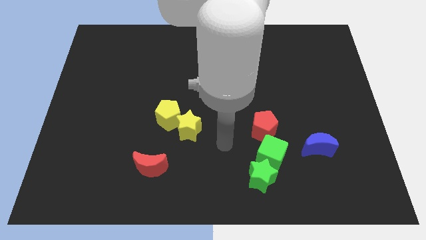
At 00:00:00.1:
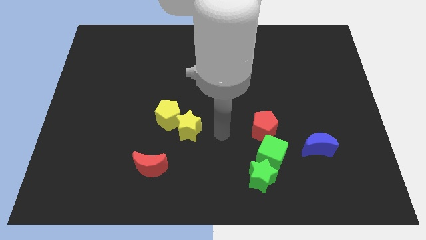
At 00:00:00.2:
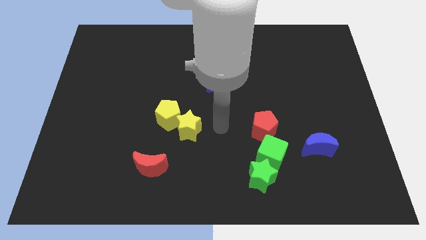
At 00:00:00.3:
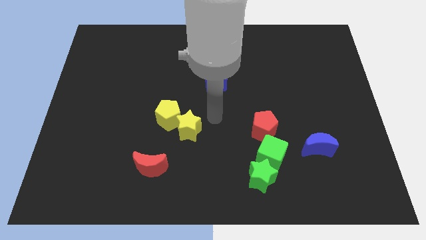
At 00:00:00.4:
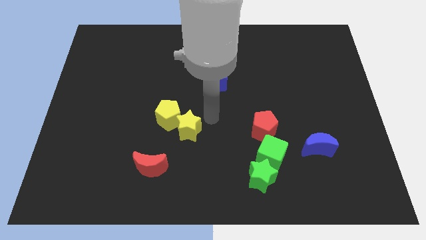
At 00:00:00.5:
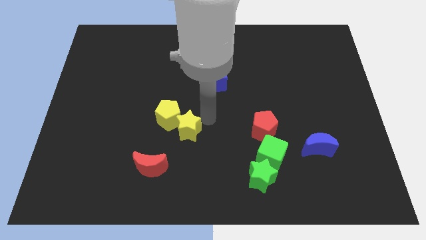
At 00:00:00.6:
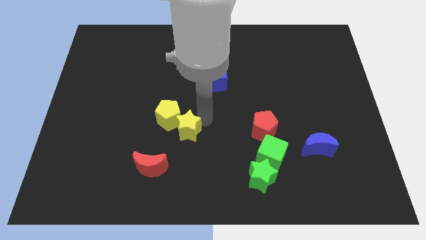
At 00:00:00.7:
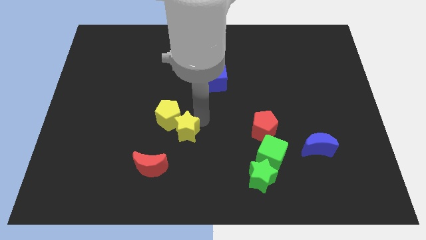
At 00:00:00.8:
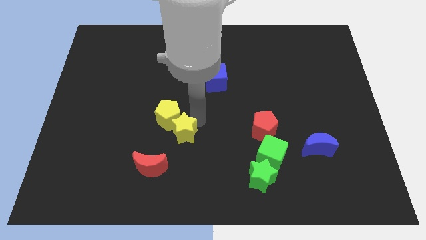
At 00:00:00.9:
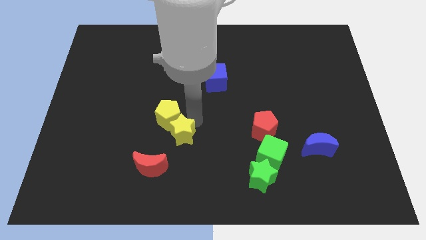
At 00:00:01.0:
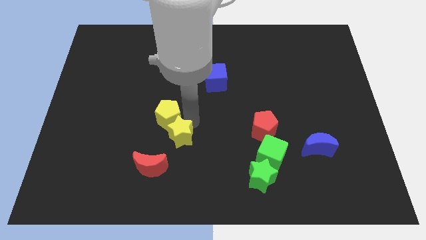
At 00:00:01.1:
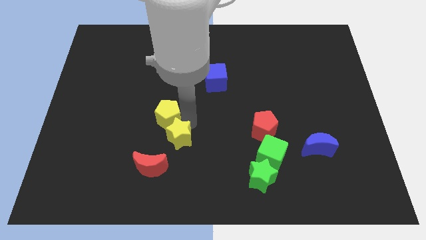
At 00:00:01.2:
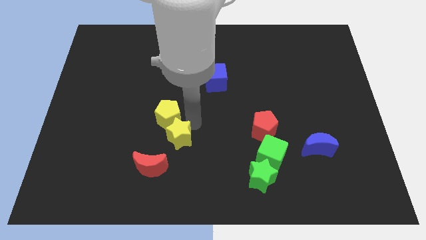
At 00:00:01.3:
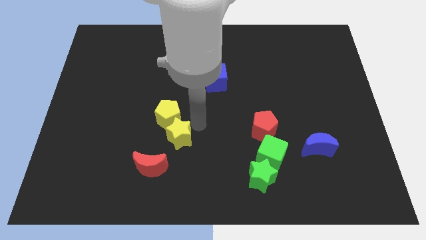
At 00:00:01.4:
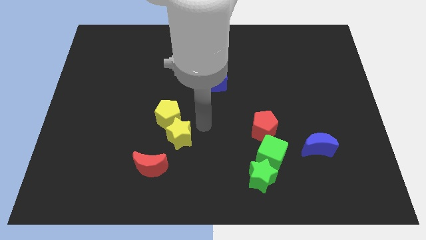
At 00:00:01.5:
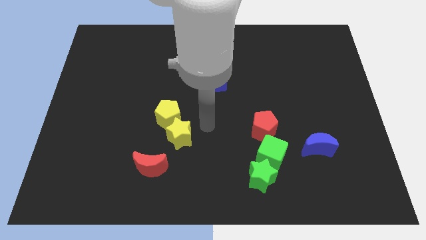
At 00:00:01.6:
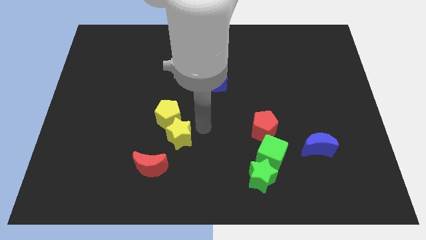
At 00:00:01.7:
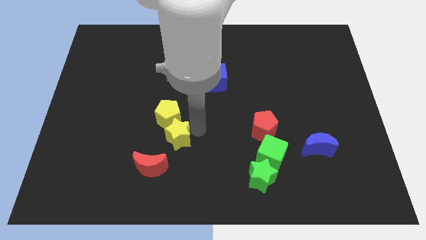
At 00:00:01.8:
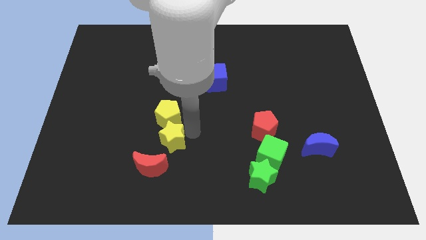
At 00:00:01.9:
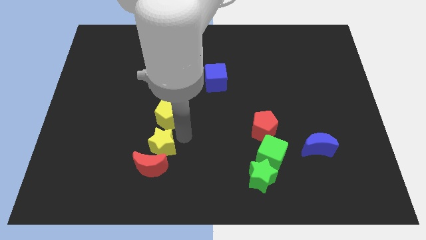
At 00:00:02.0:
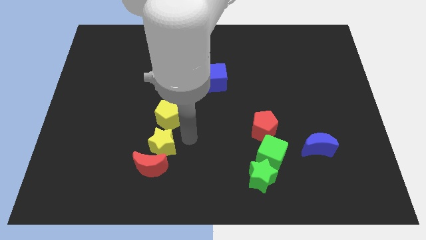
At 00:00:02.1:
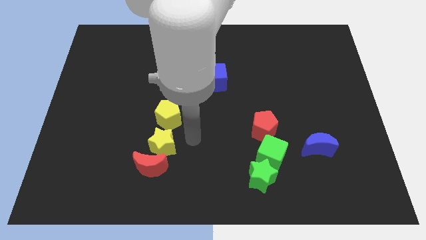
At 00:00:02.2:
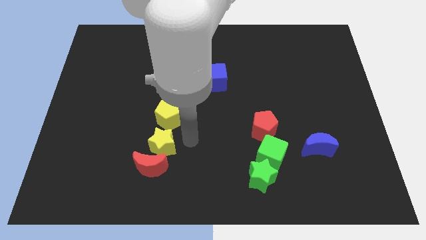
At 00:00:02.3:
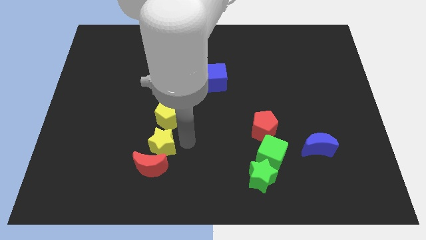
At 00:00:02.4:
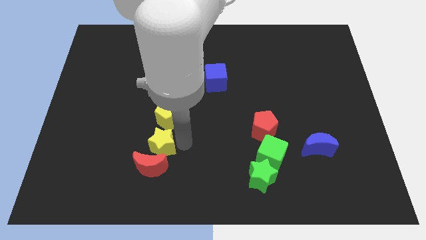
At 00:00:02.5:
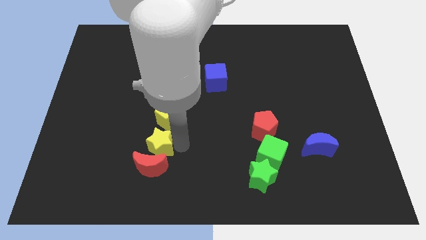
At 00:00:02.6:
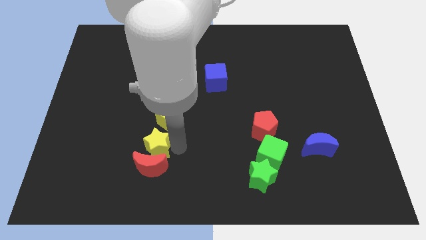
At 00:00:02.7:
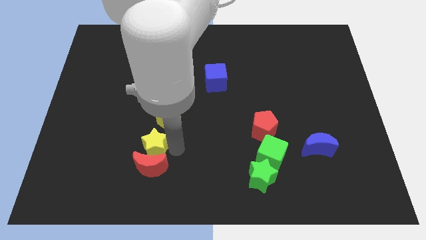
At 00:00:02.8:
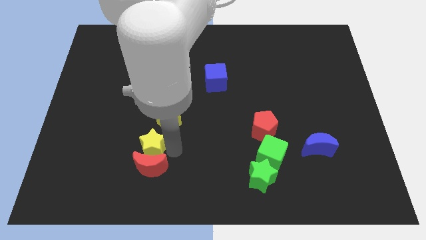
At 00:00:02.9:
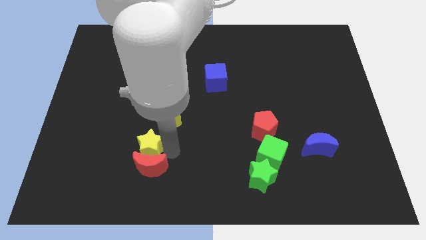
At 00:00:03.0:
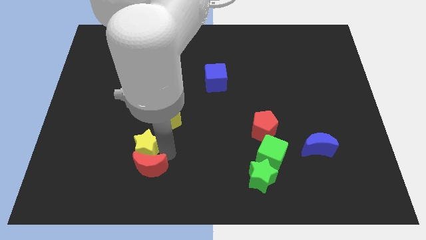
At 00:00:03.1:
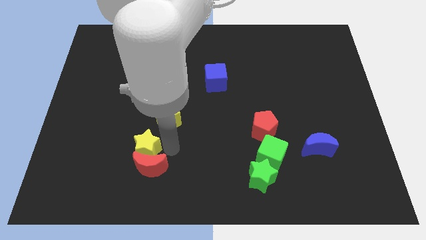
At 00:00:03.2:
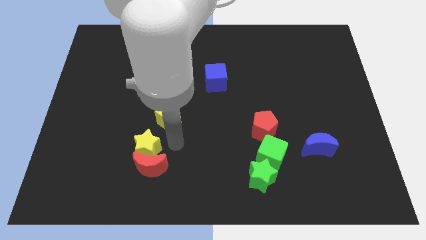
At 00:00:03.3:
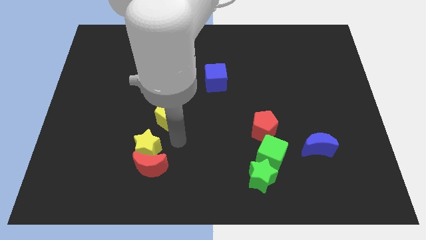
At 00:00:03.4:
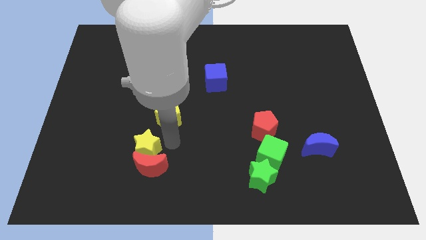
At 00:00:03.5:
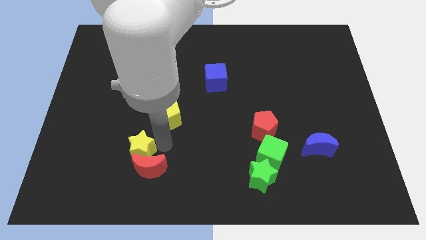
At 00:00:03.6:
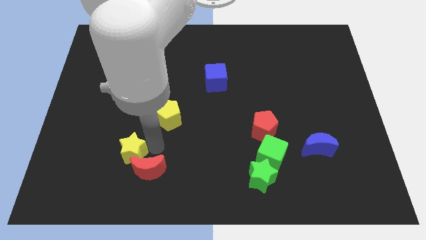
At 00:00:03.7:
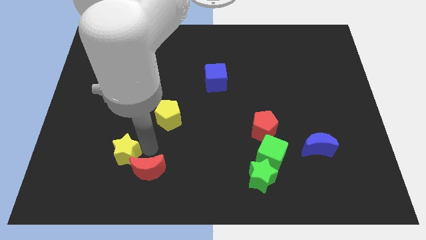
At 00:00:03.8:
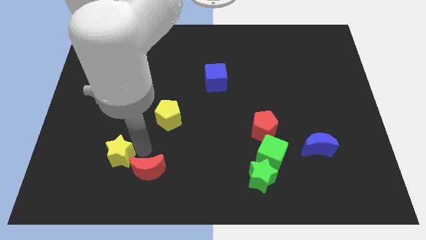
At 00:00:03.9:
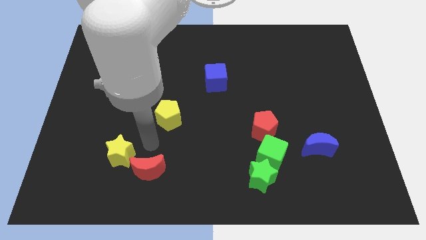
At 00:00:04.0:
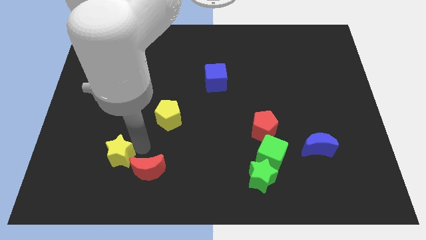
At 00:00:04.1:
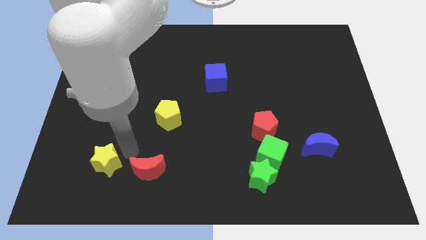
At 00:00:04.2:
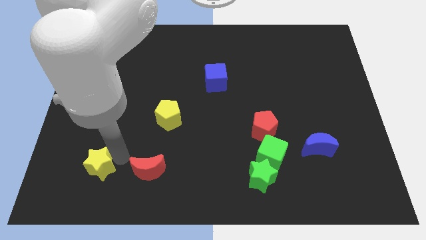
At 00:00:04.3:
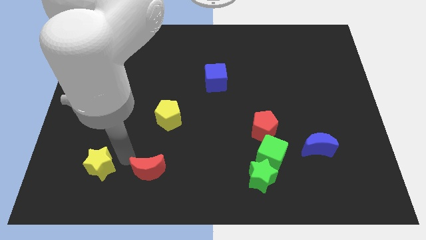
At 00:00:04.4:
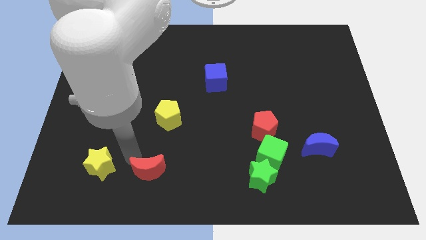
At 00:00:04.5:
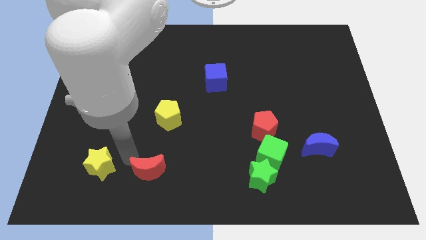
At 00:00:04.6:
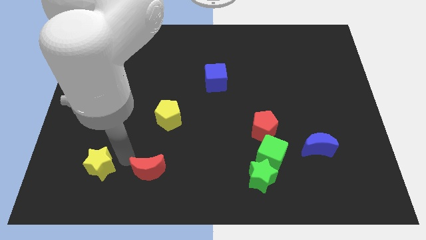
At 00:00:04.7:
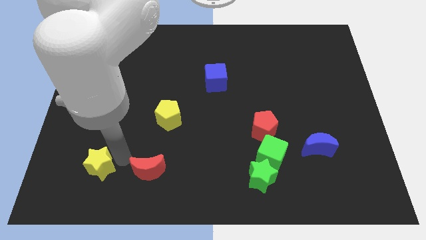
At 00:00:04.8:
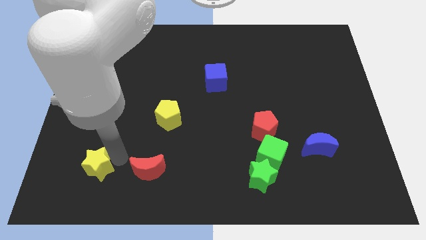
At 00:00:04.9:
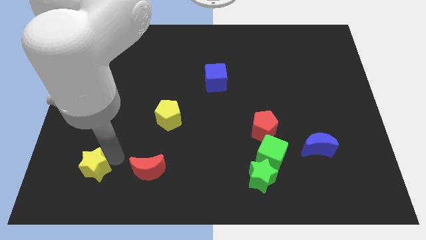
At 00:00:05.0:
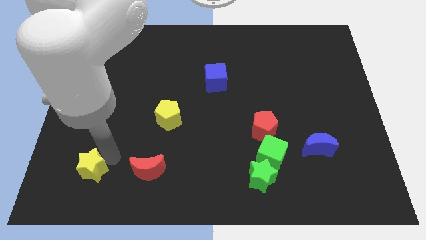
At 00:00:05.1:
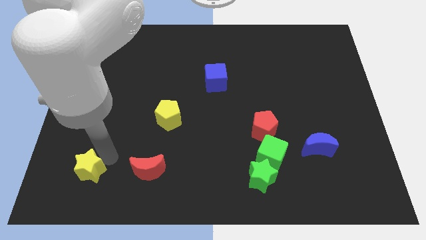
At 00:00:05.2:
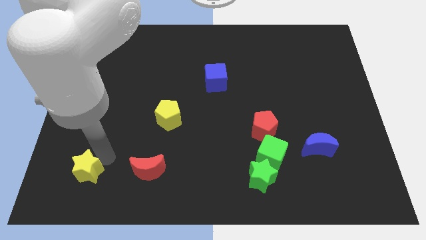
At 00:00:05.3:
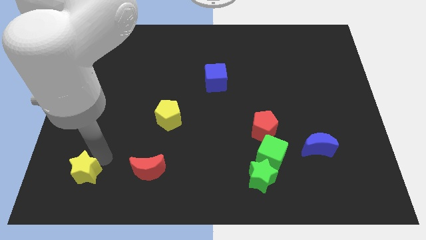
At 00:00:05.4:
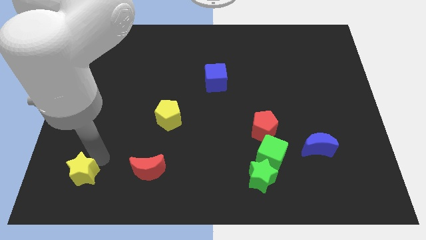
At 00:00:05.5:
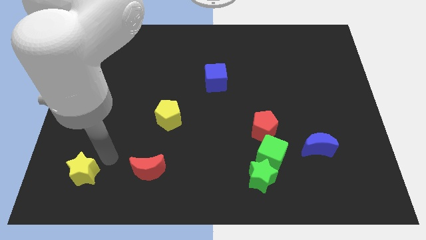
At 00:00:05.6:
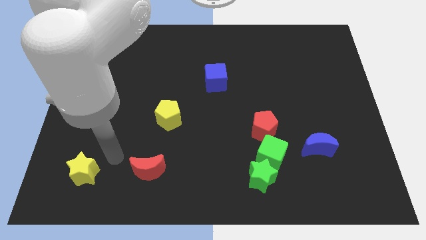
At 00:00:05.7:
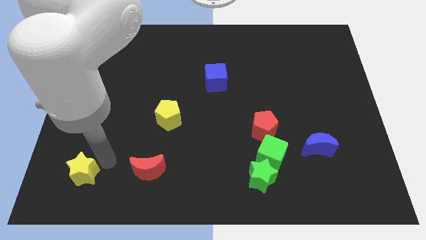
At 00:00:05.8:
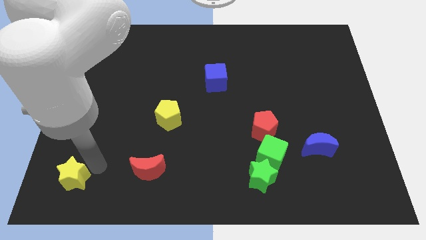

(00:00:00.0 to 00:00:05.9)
put the yellow star to the bottom left
